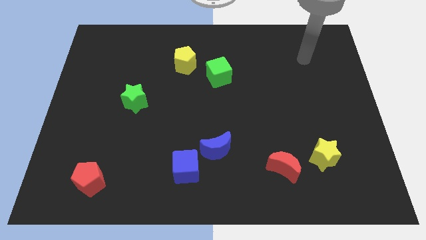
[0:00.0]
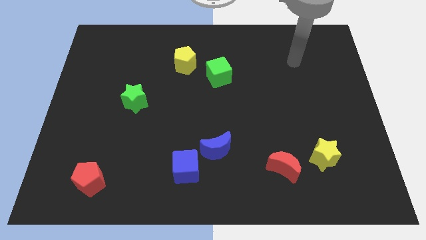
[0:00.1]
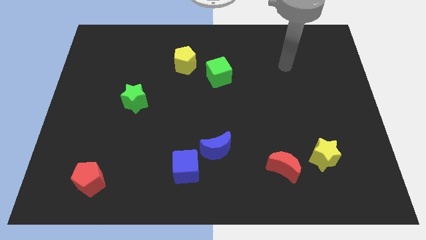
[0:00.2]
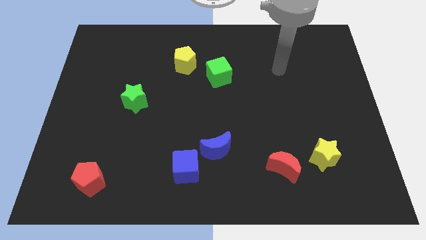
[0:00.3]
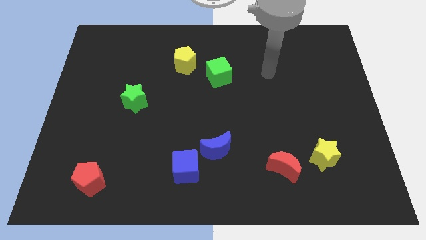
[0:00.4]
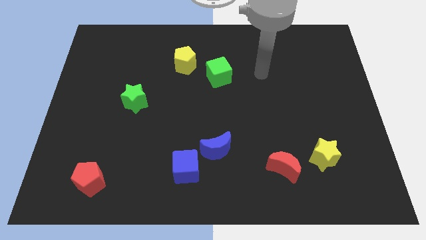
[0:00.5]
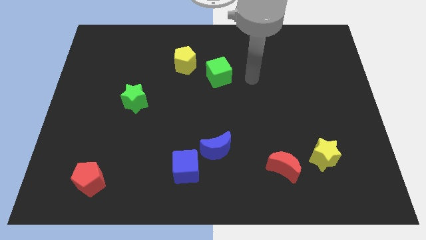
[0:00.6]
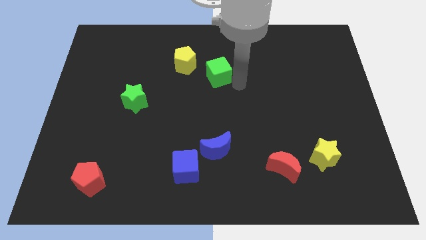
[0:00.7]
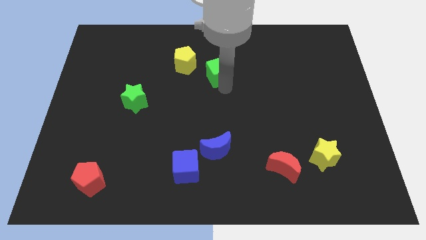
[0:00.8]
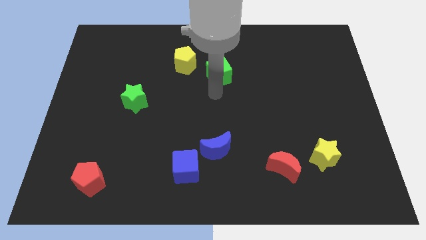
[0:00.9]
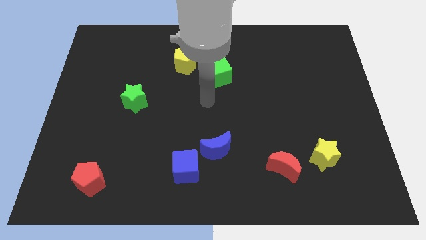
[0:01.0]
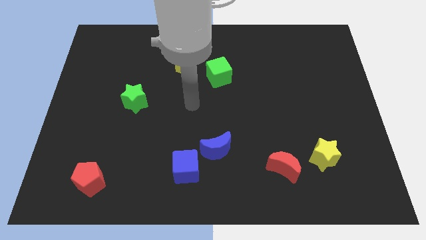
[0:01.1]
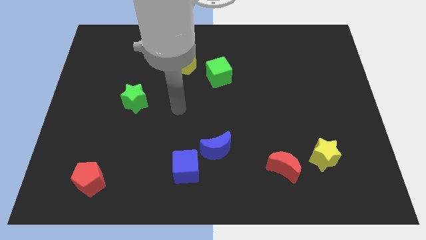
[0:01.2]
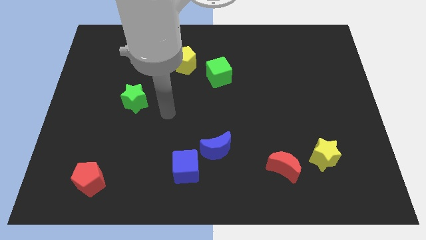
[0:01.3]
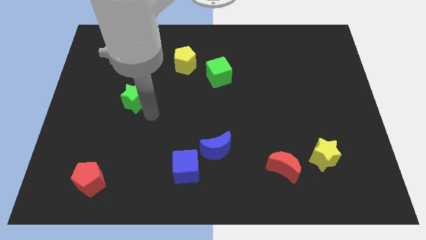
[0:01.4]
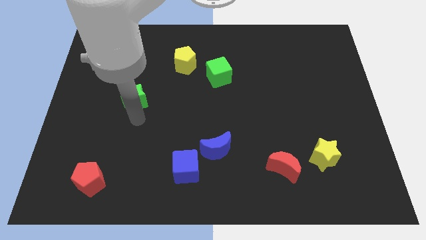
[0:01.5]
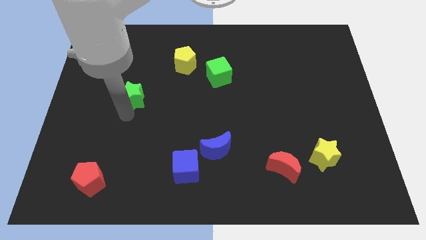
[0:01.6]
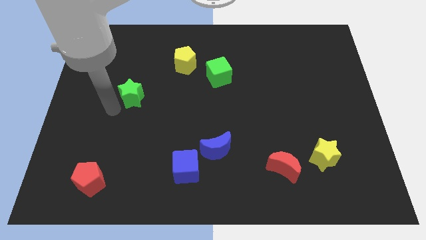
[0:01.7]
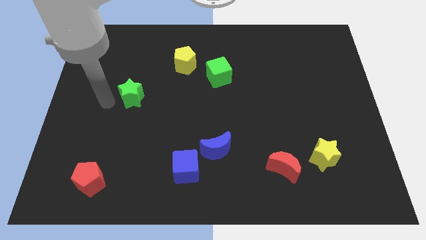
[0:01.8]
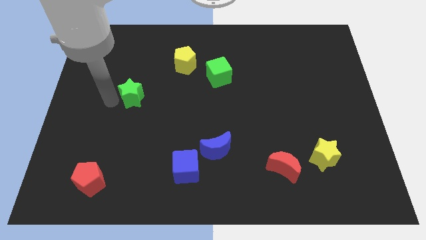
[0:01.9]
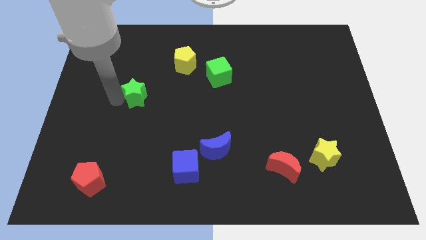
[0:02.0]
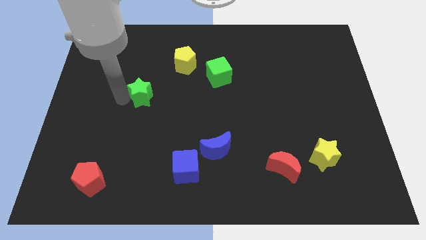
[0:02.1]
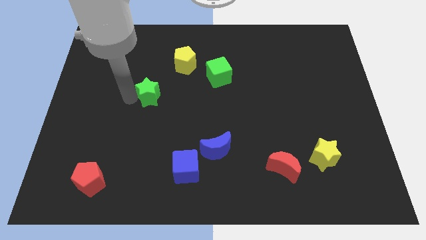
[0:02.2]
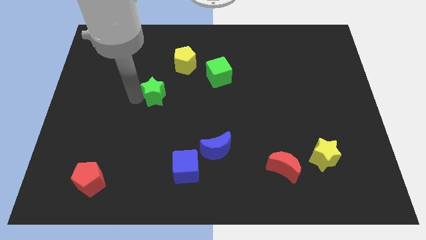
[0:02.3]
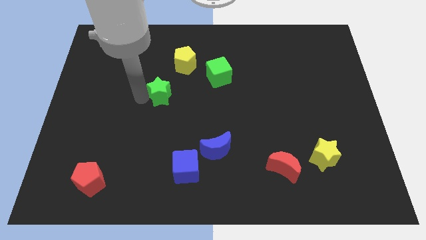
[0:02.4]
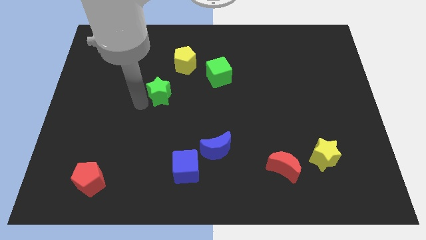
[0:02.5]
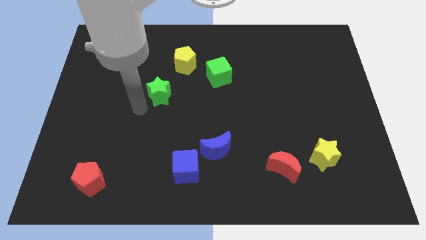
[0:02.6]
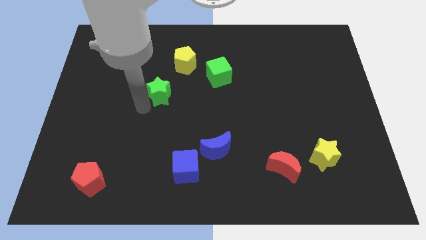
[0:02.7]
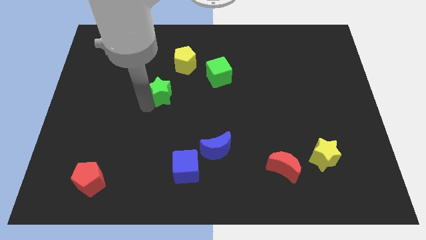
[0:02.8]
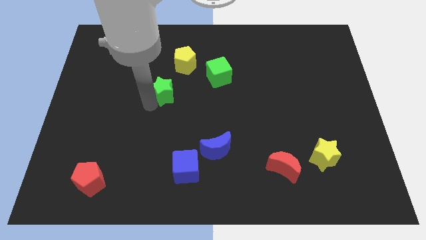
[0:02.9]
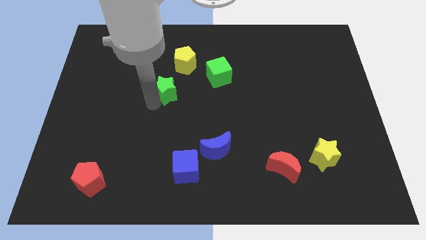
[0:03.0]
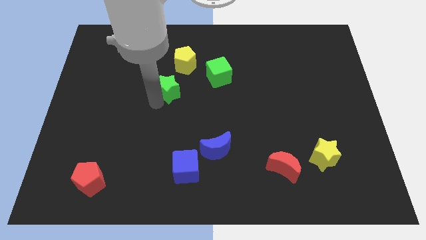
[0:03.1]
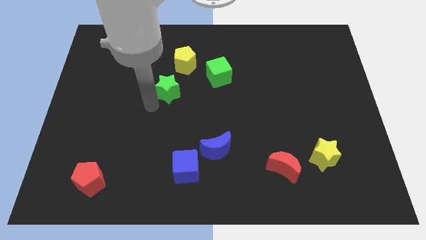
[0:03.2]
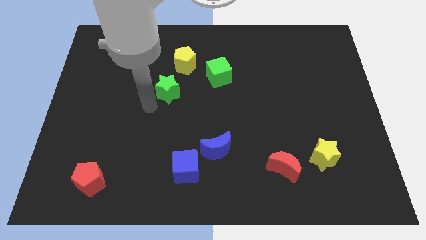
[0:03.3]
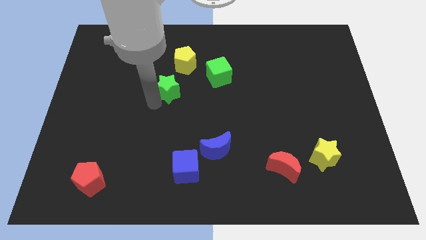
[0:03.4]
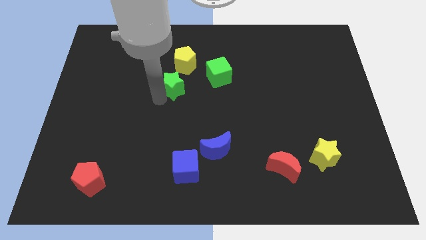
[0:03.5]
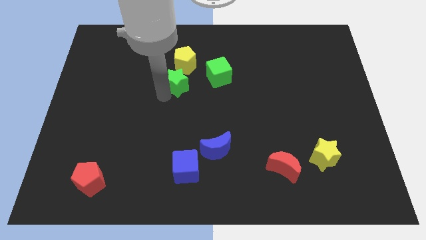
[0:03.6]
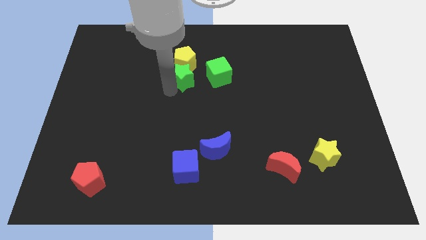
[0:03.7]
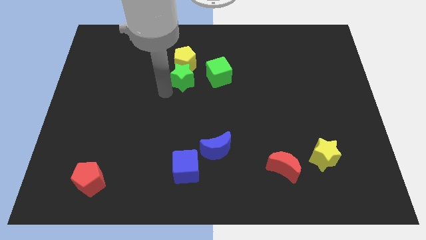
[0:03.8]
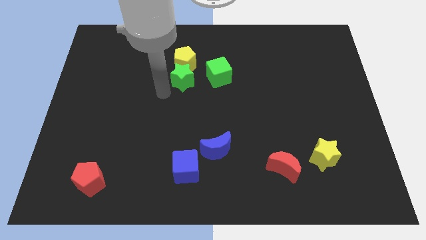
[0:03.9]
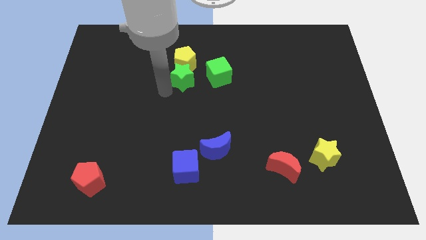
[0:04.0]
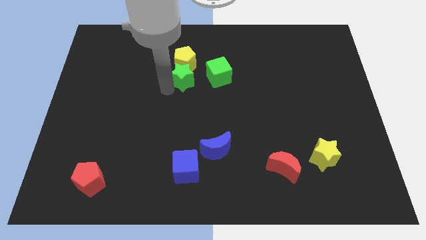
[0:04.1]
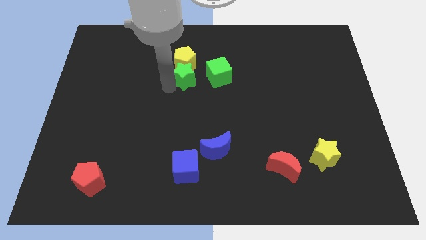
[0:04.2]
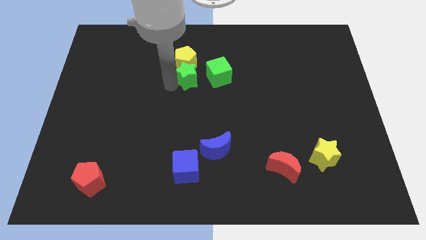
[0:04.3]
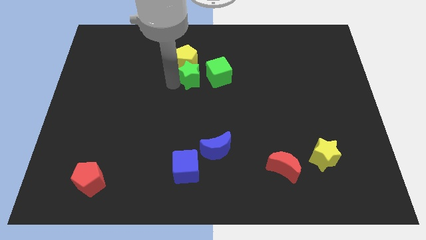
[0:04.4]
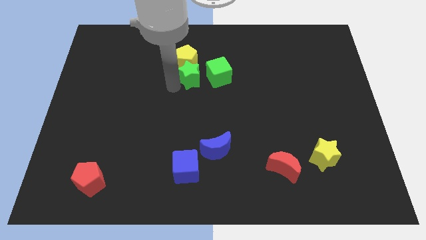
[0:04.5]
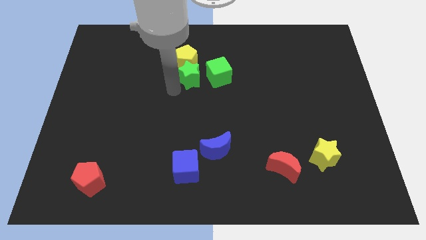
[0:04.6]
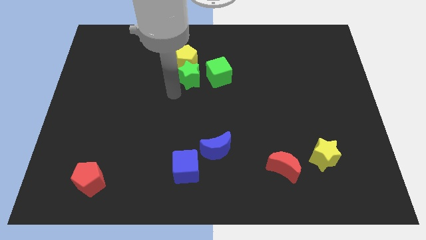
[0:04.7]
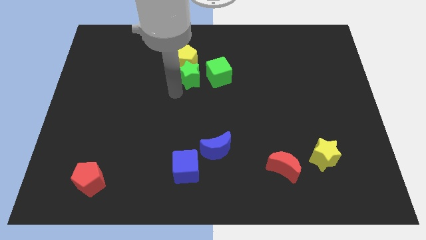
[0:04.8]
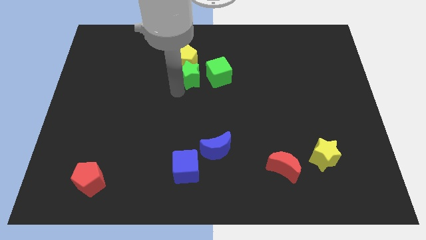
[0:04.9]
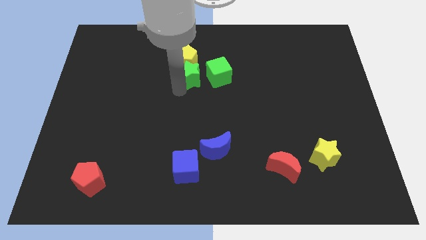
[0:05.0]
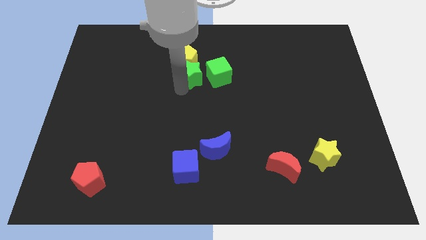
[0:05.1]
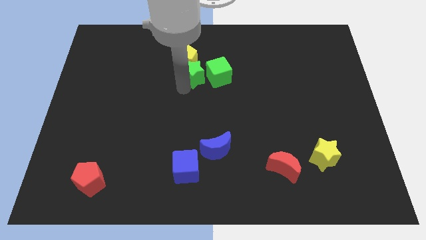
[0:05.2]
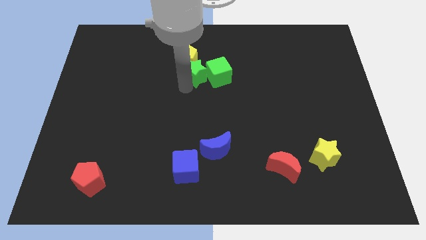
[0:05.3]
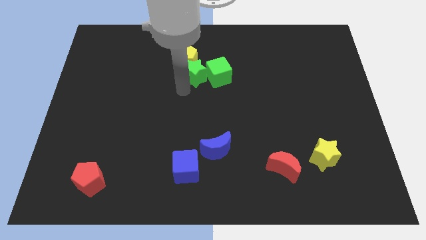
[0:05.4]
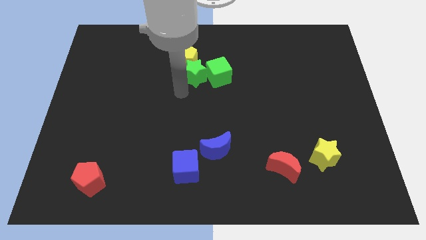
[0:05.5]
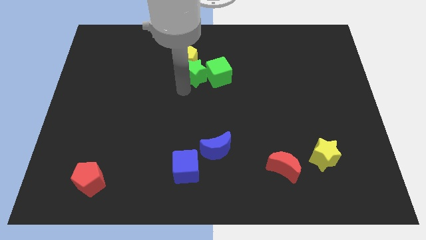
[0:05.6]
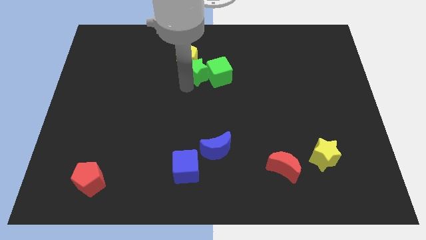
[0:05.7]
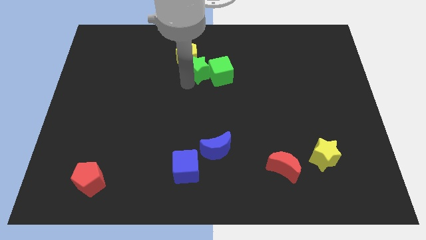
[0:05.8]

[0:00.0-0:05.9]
move the green star right of the yellow pentagon
